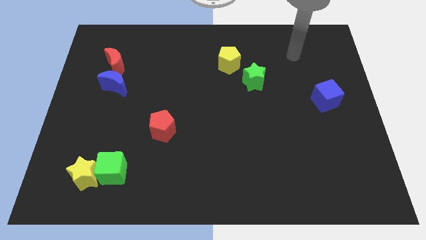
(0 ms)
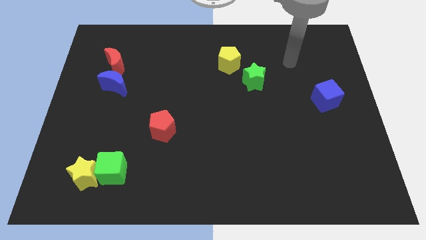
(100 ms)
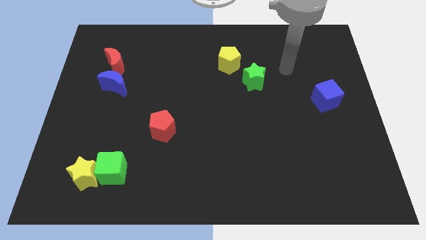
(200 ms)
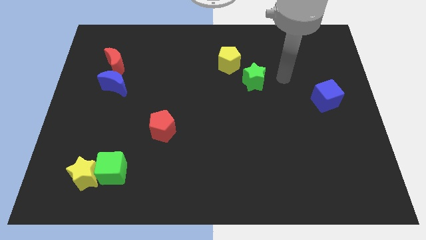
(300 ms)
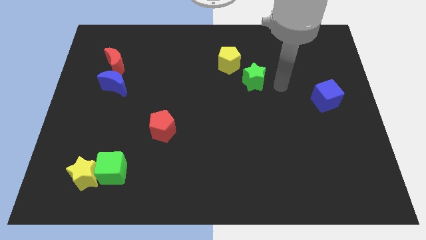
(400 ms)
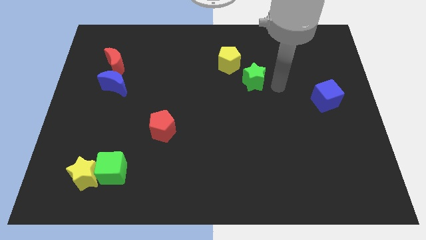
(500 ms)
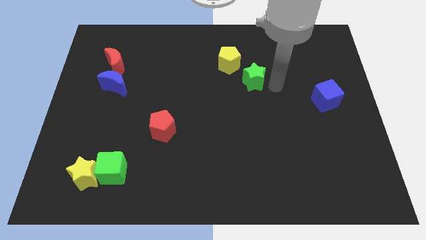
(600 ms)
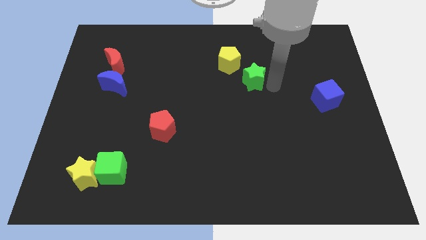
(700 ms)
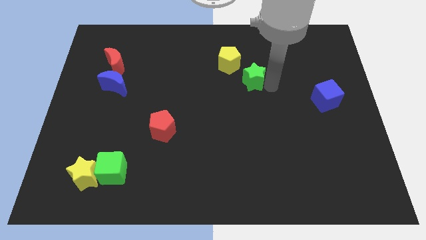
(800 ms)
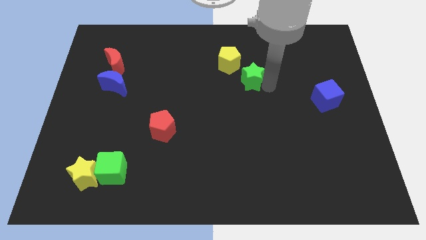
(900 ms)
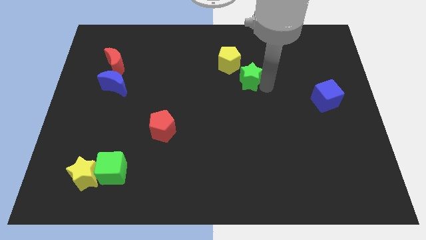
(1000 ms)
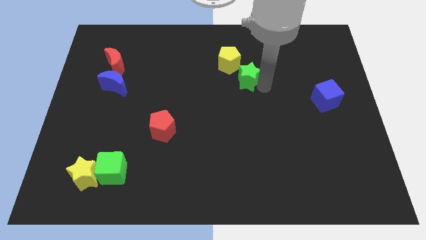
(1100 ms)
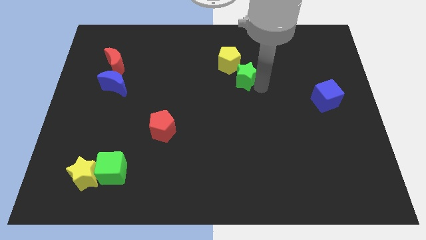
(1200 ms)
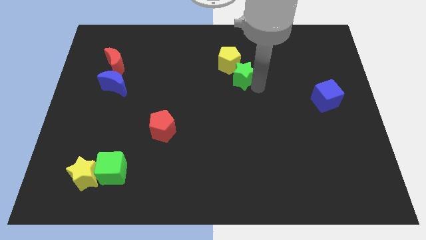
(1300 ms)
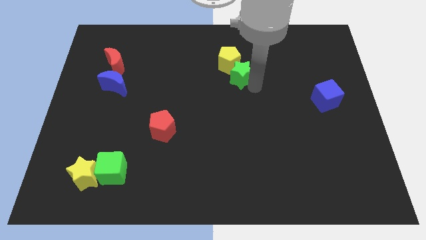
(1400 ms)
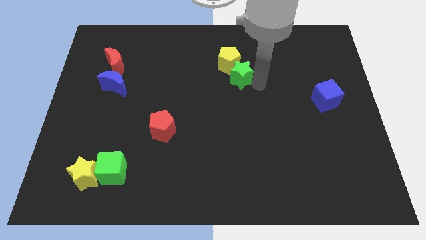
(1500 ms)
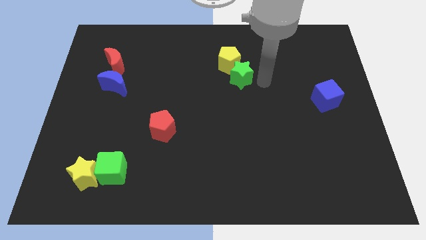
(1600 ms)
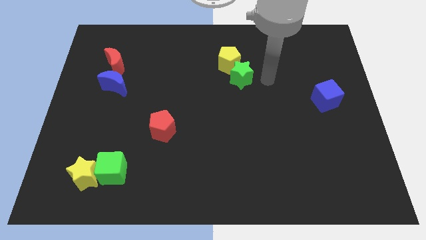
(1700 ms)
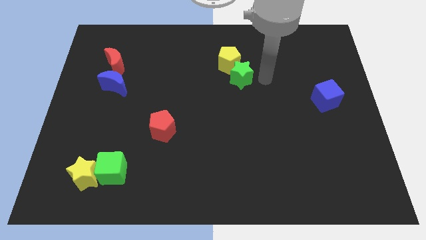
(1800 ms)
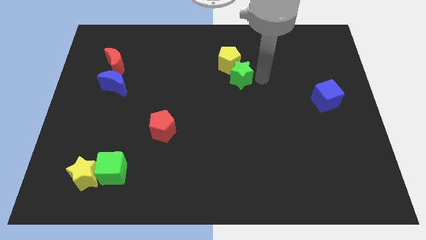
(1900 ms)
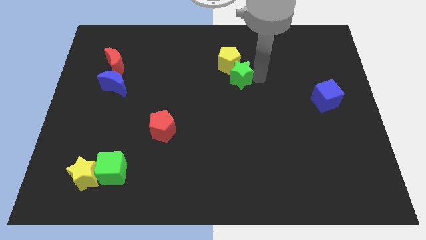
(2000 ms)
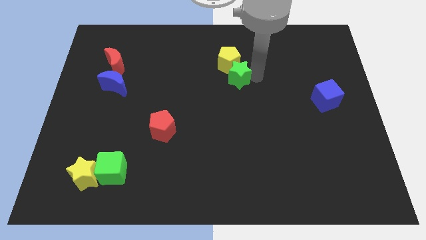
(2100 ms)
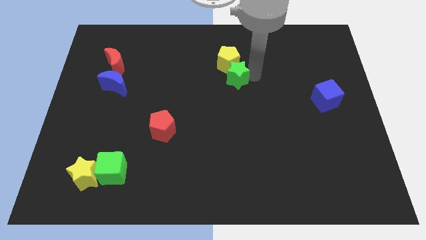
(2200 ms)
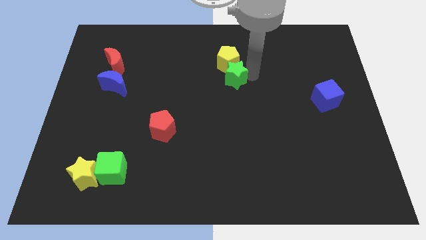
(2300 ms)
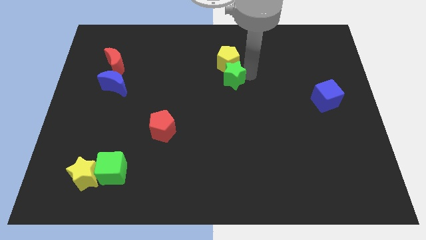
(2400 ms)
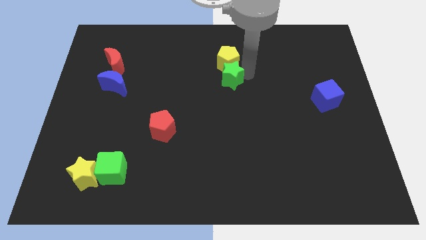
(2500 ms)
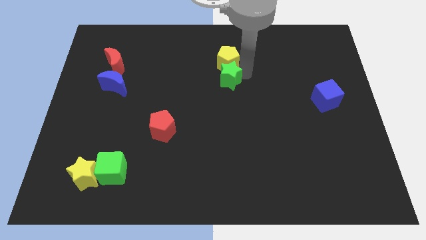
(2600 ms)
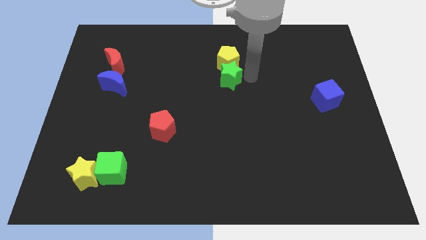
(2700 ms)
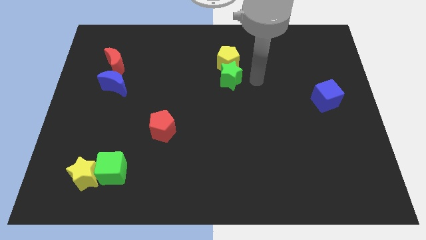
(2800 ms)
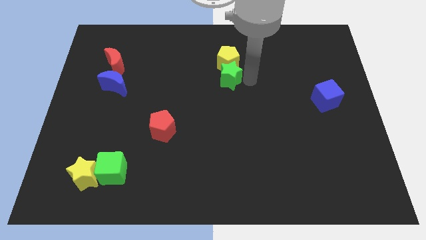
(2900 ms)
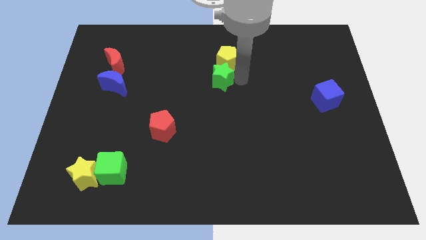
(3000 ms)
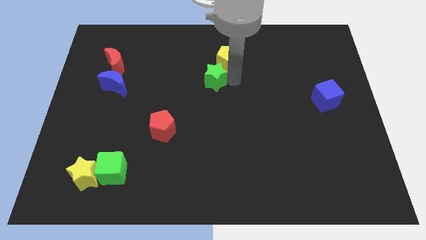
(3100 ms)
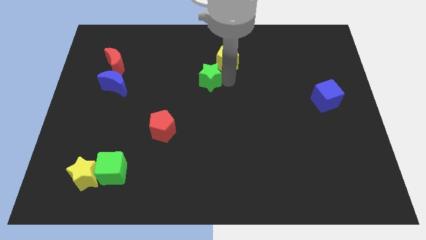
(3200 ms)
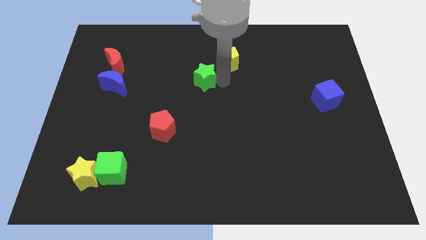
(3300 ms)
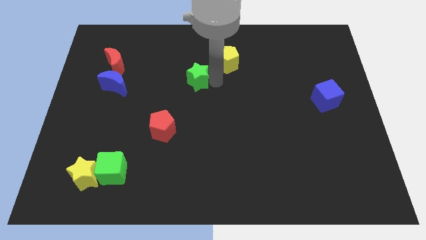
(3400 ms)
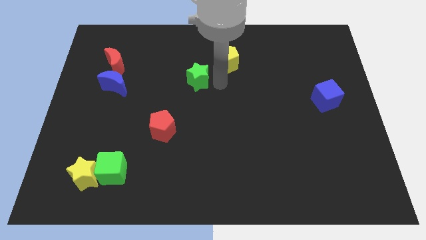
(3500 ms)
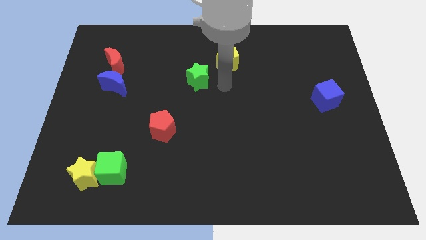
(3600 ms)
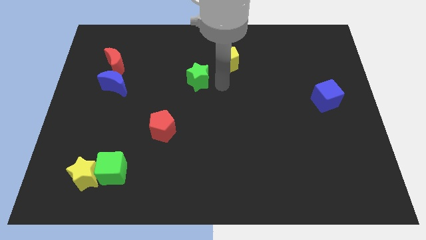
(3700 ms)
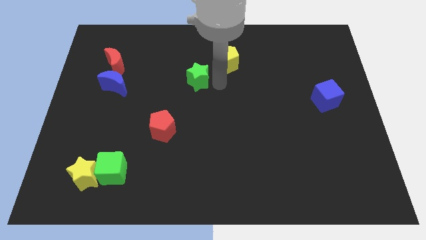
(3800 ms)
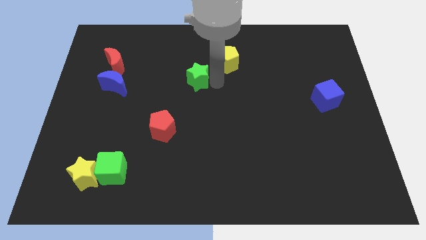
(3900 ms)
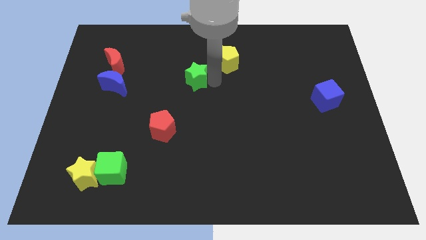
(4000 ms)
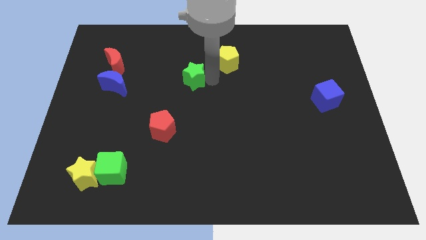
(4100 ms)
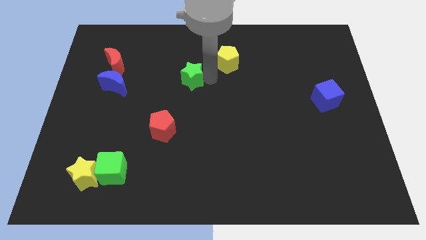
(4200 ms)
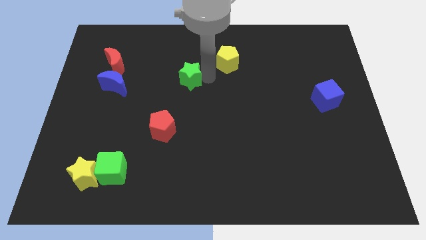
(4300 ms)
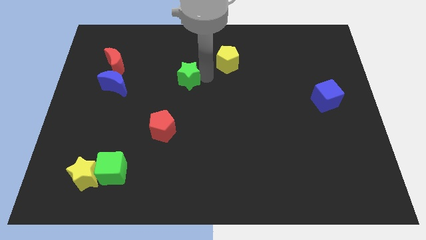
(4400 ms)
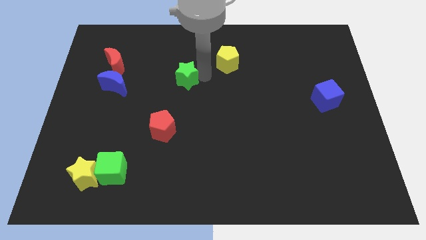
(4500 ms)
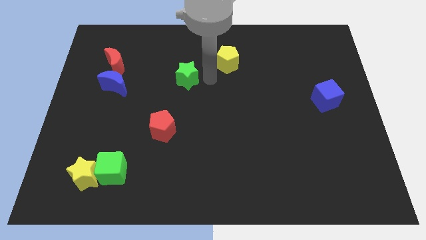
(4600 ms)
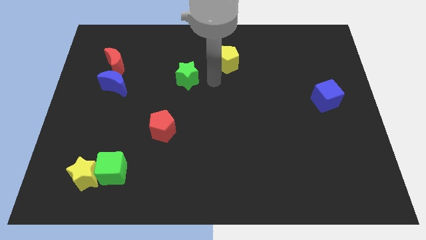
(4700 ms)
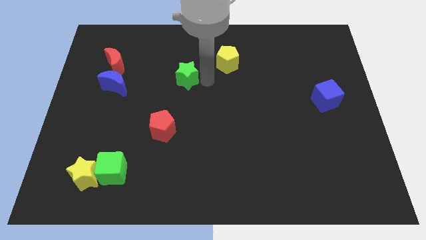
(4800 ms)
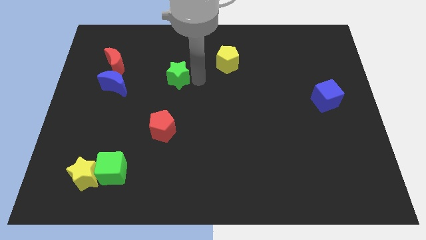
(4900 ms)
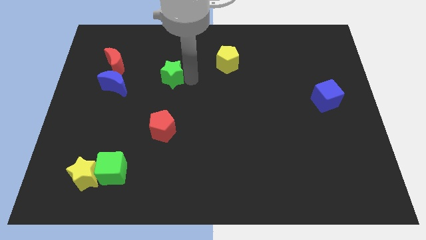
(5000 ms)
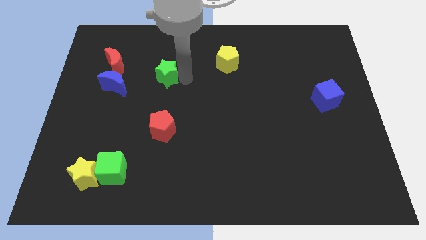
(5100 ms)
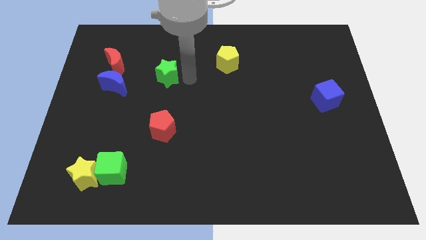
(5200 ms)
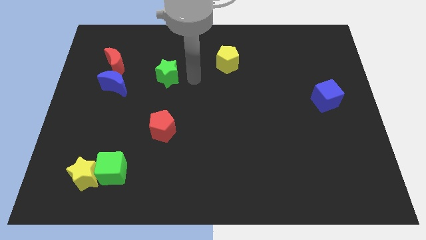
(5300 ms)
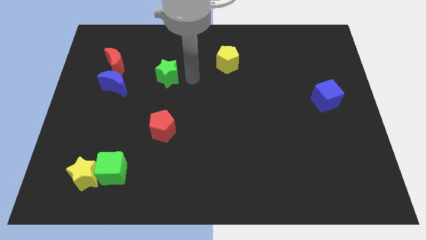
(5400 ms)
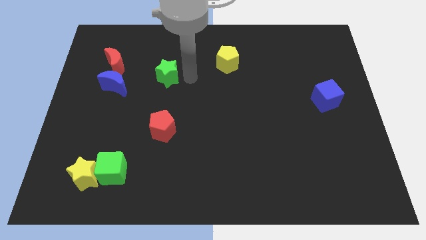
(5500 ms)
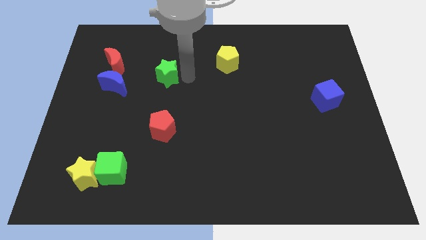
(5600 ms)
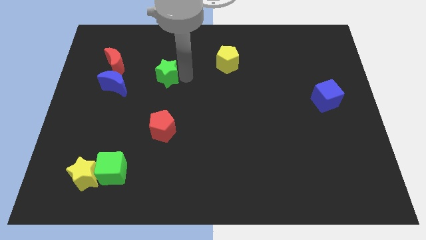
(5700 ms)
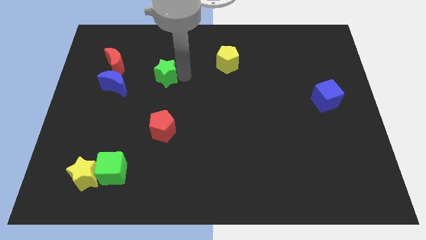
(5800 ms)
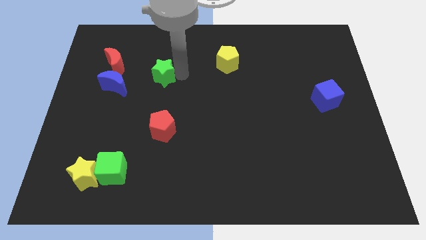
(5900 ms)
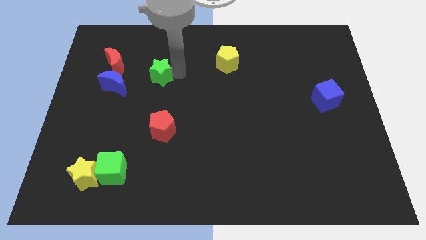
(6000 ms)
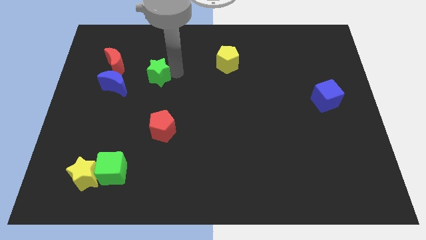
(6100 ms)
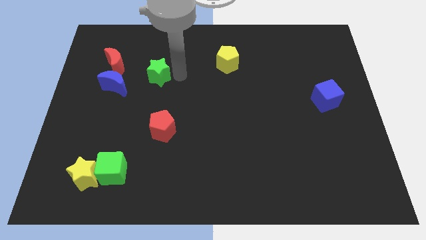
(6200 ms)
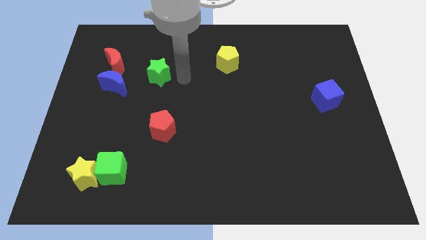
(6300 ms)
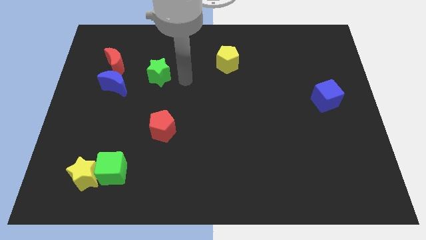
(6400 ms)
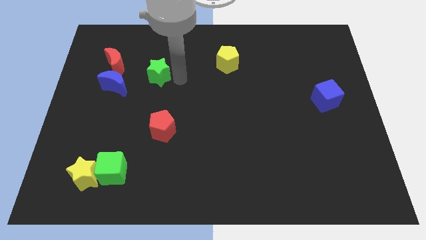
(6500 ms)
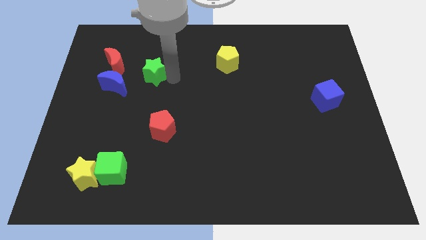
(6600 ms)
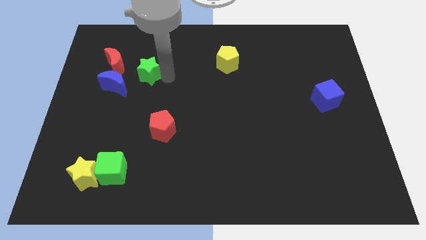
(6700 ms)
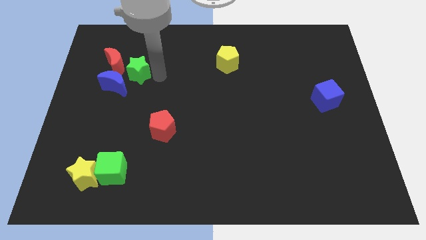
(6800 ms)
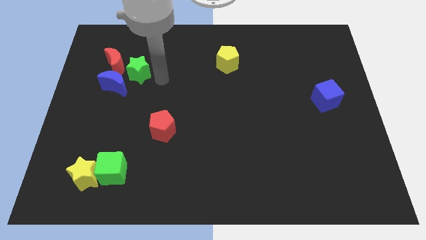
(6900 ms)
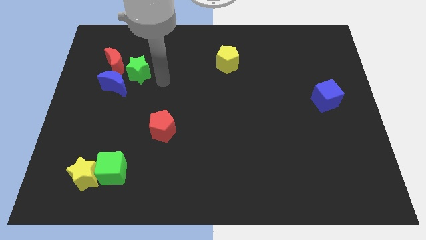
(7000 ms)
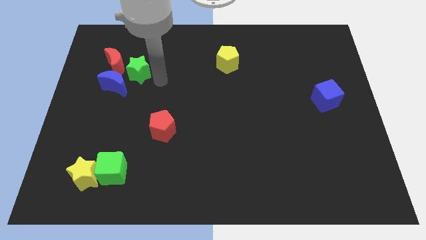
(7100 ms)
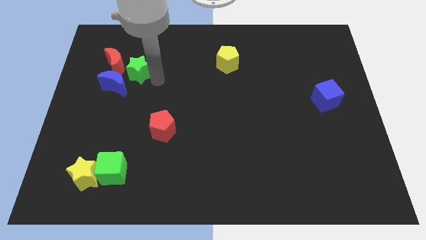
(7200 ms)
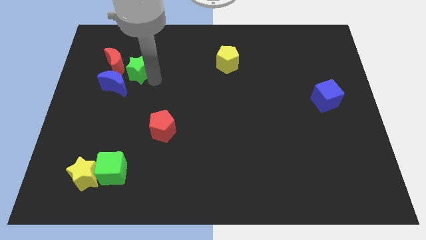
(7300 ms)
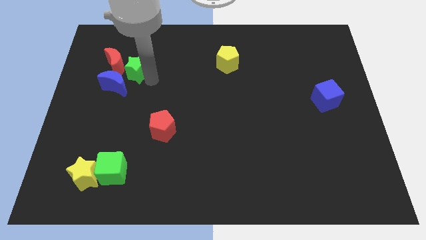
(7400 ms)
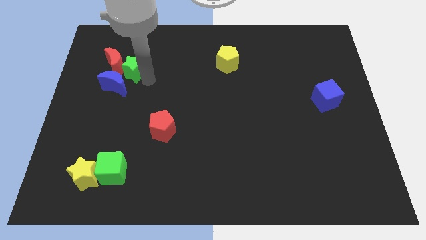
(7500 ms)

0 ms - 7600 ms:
move the green star close to the red moon
